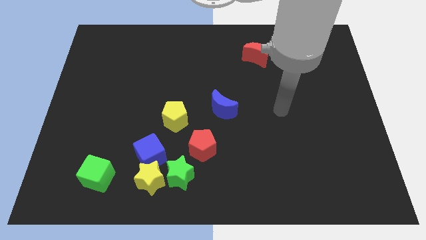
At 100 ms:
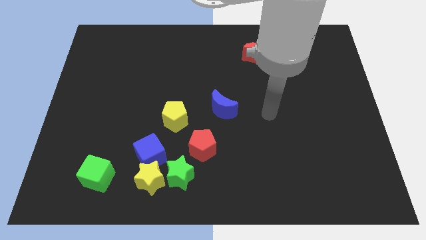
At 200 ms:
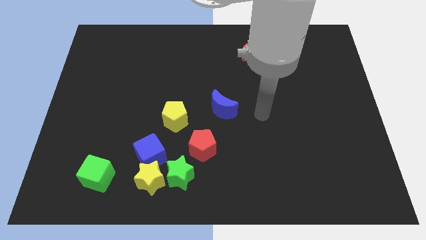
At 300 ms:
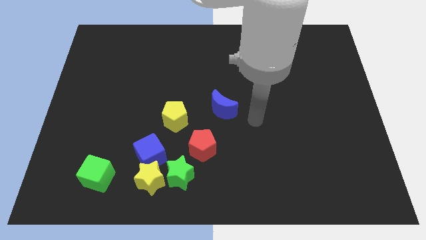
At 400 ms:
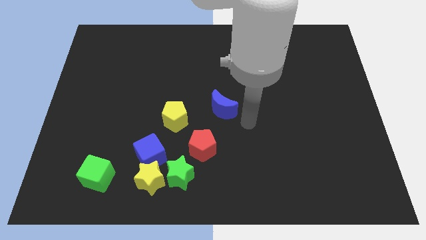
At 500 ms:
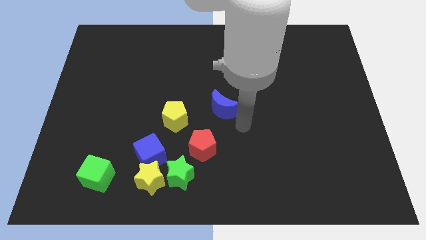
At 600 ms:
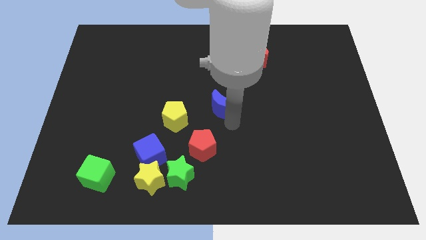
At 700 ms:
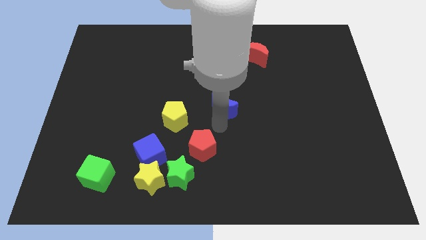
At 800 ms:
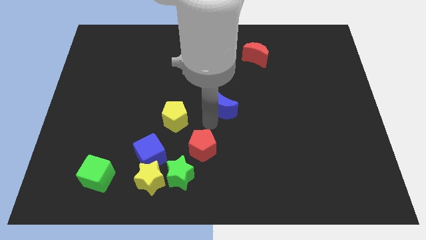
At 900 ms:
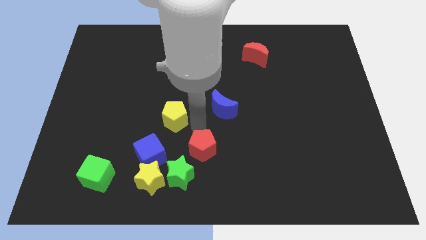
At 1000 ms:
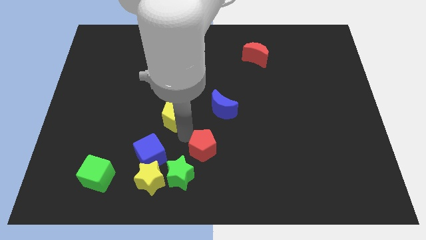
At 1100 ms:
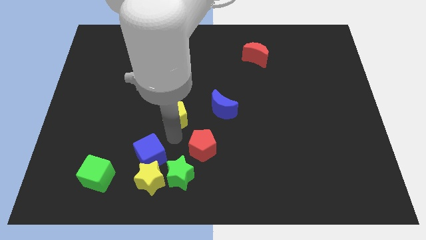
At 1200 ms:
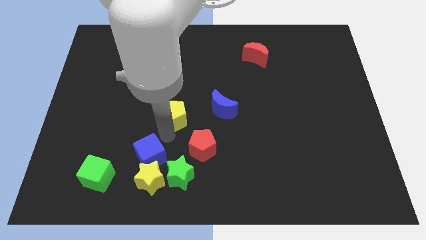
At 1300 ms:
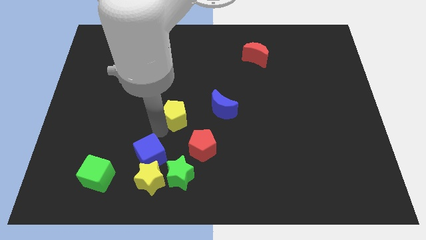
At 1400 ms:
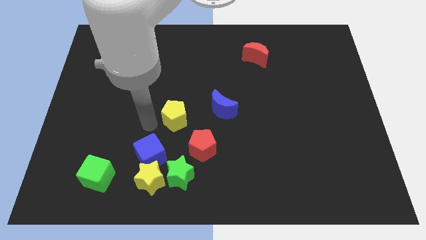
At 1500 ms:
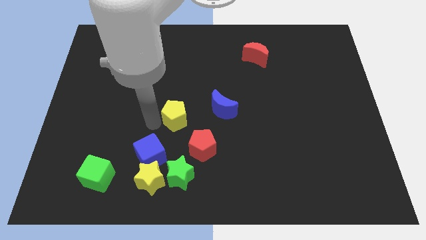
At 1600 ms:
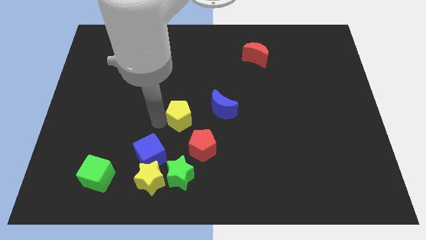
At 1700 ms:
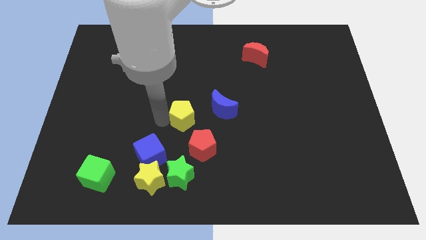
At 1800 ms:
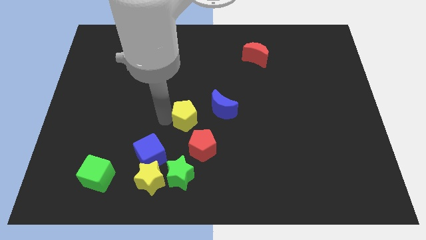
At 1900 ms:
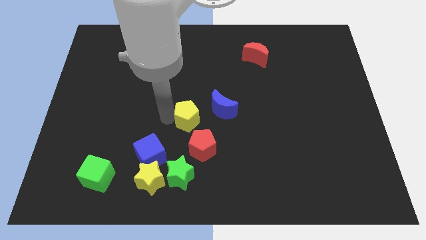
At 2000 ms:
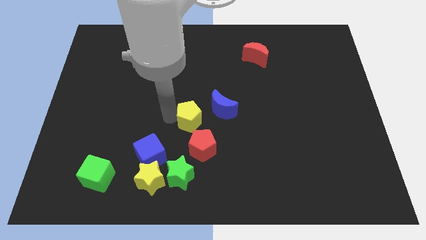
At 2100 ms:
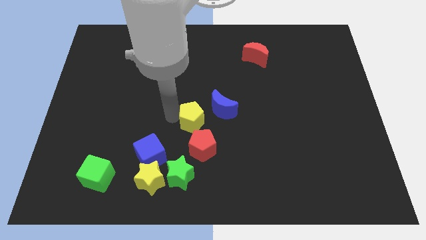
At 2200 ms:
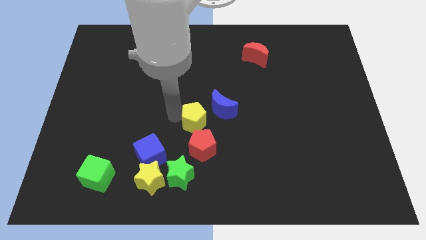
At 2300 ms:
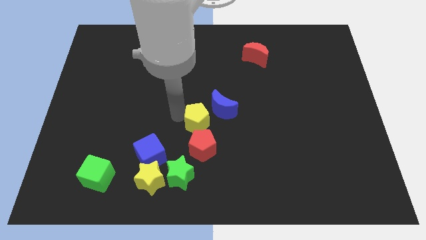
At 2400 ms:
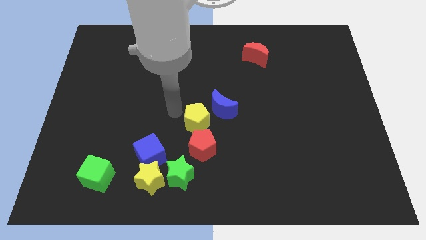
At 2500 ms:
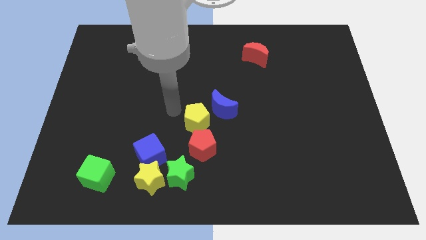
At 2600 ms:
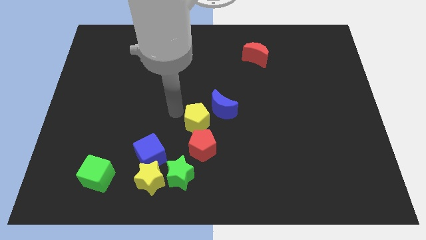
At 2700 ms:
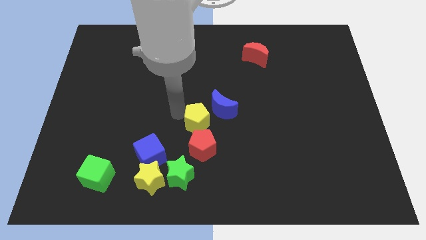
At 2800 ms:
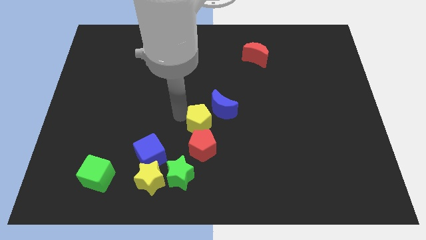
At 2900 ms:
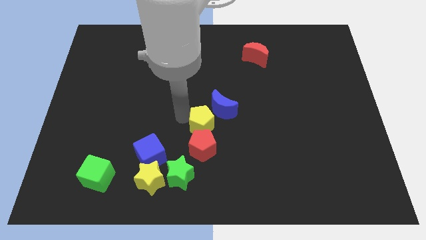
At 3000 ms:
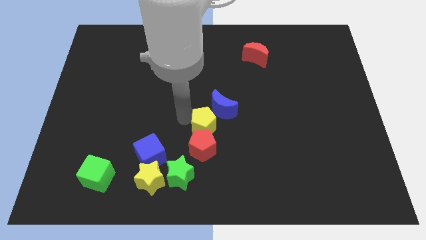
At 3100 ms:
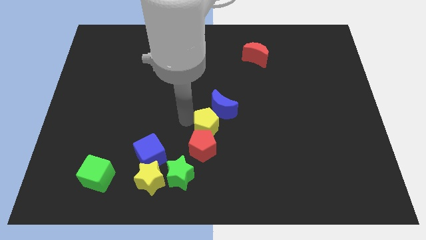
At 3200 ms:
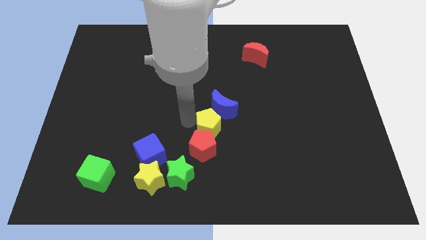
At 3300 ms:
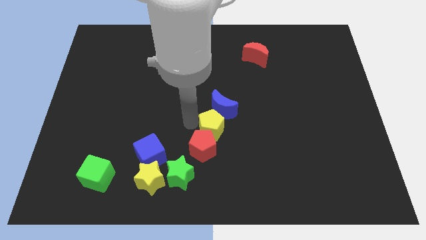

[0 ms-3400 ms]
slightly slide the yellow pentagon down and right diagonally

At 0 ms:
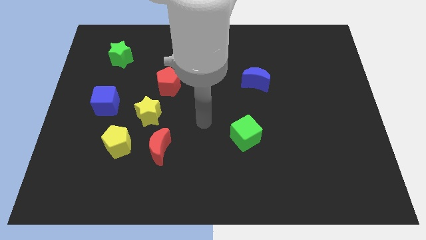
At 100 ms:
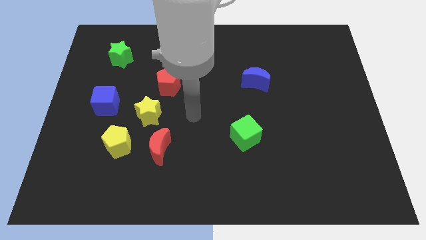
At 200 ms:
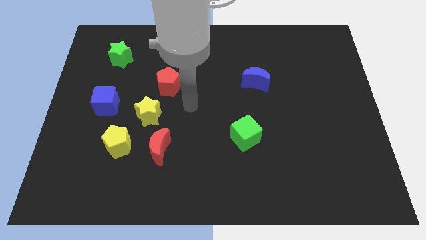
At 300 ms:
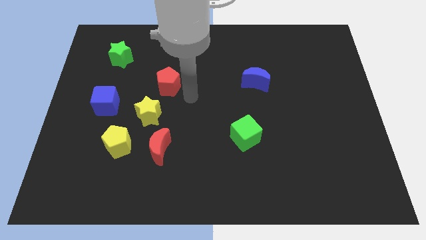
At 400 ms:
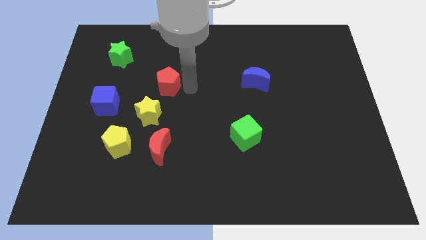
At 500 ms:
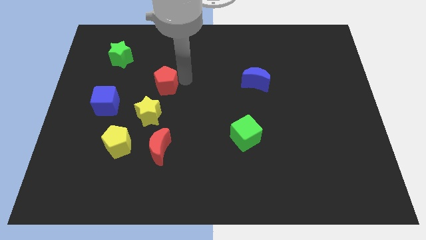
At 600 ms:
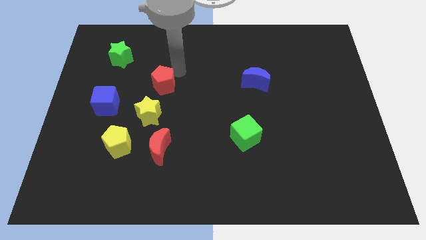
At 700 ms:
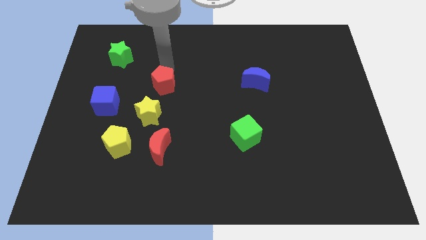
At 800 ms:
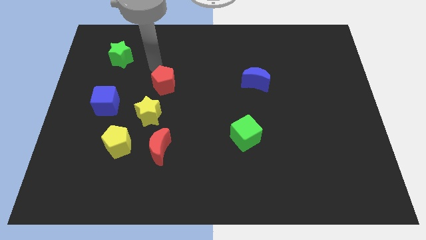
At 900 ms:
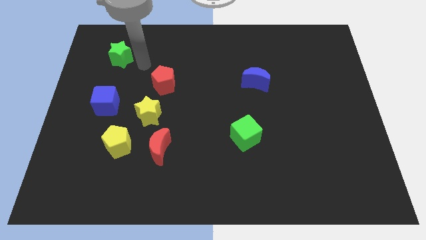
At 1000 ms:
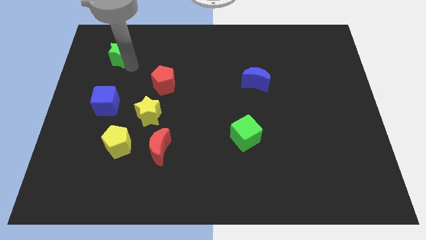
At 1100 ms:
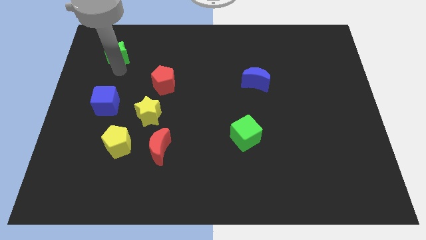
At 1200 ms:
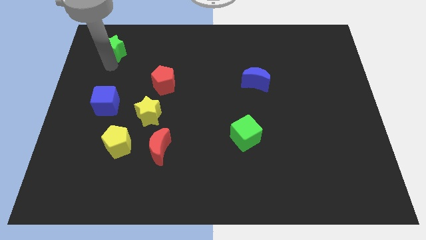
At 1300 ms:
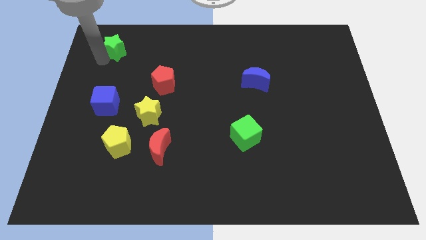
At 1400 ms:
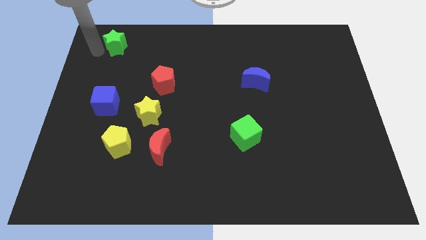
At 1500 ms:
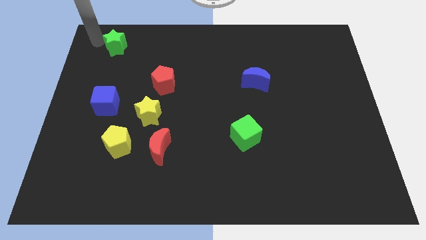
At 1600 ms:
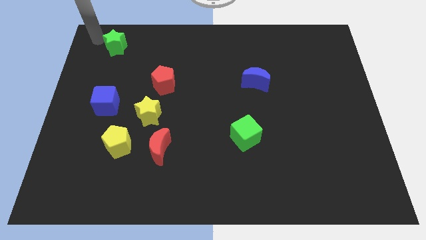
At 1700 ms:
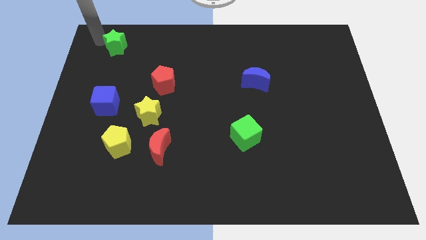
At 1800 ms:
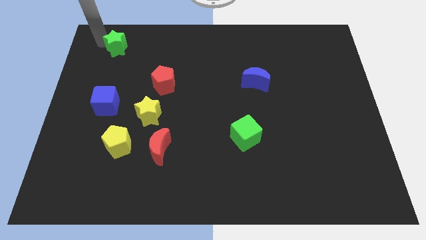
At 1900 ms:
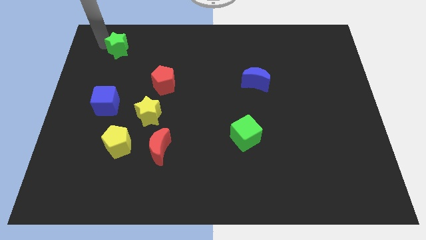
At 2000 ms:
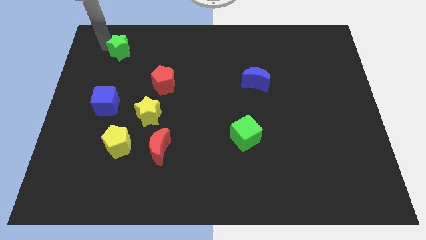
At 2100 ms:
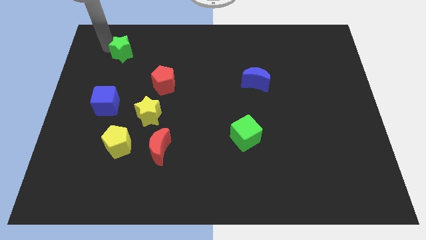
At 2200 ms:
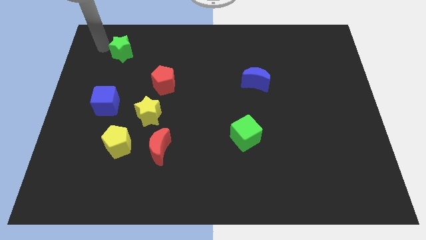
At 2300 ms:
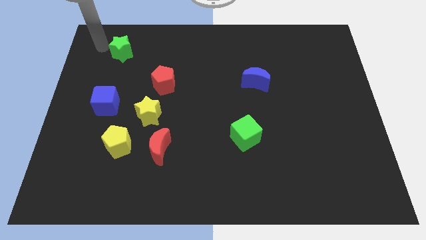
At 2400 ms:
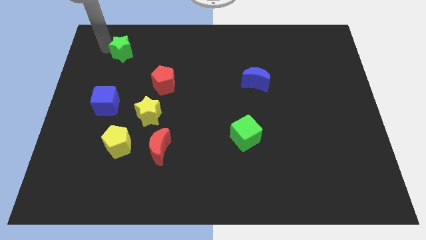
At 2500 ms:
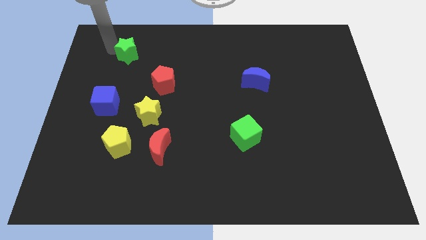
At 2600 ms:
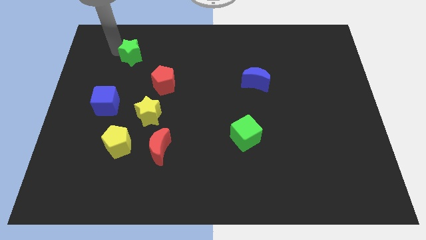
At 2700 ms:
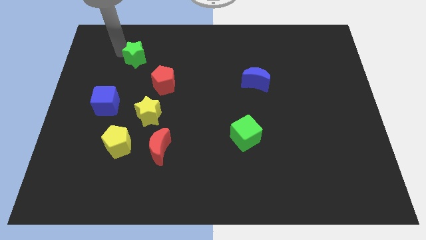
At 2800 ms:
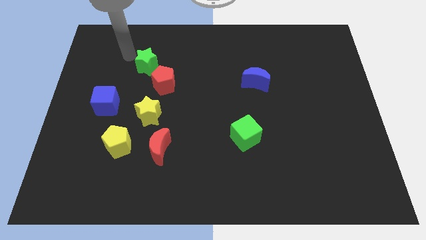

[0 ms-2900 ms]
slightly move the green star right

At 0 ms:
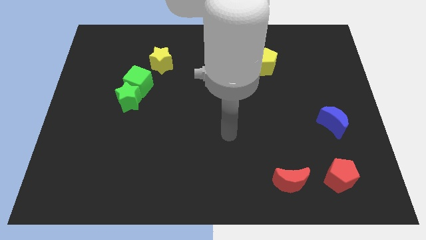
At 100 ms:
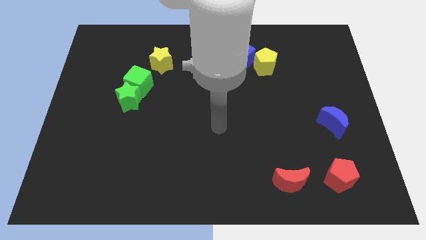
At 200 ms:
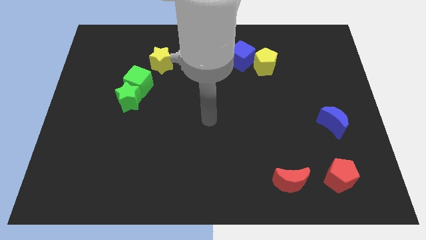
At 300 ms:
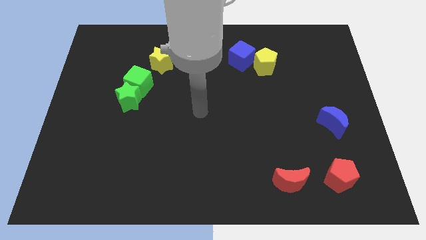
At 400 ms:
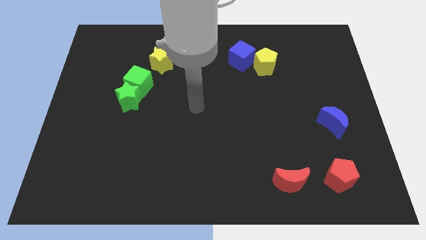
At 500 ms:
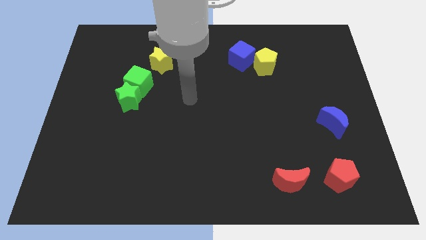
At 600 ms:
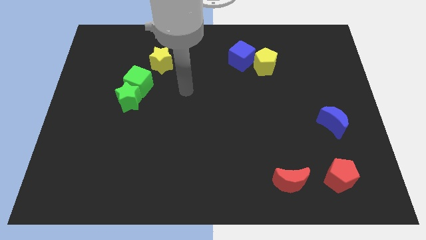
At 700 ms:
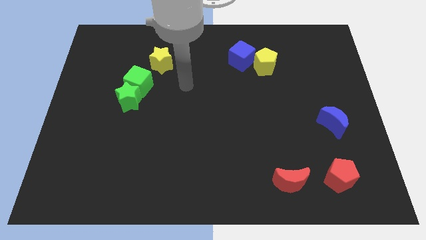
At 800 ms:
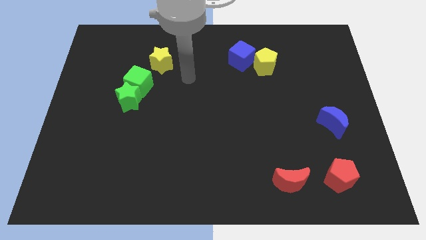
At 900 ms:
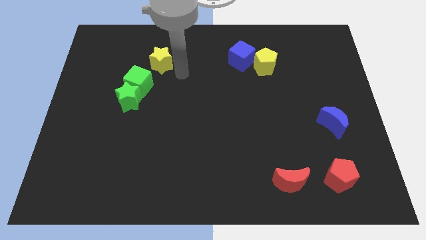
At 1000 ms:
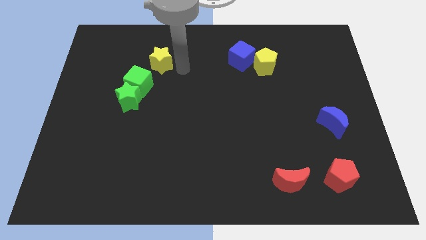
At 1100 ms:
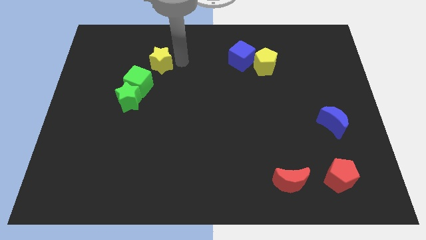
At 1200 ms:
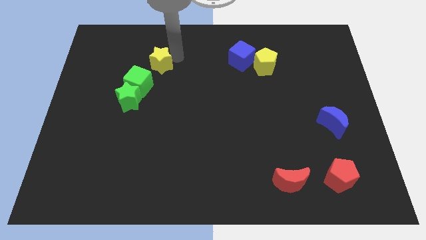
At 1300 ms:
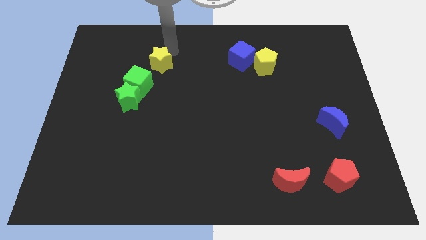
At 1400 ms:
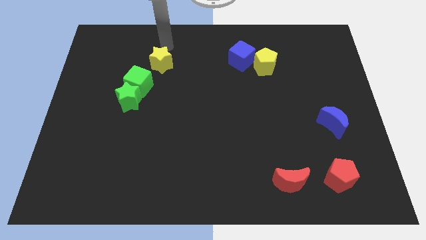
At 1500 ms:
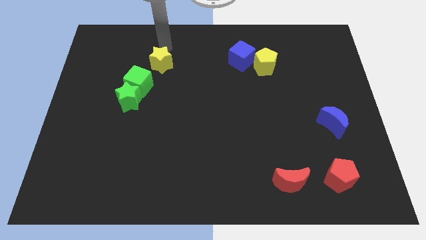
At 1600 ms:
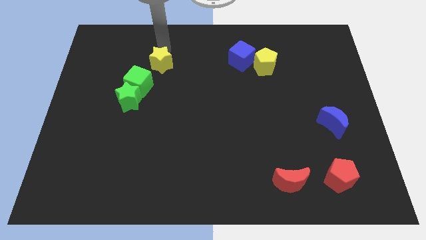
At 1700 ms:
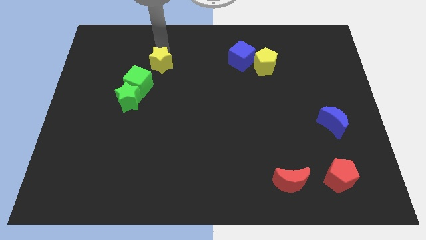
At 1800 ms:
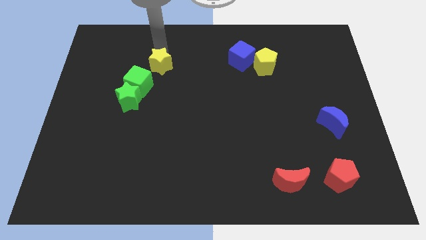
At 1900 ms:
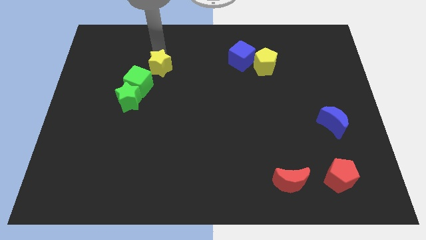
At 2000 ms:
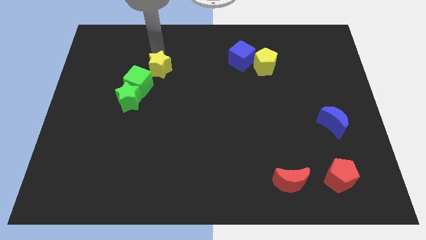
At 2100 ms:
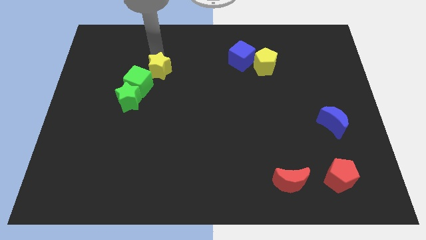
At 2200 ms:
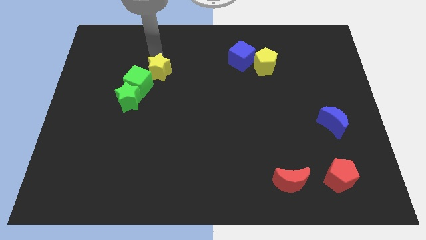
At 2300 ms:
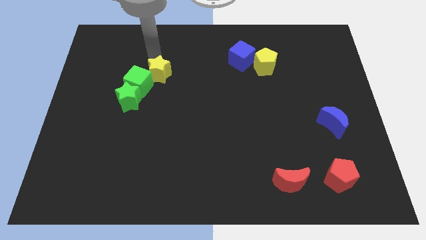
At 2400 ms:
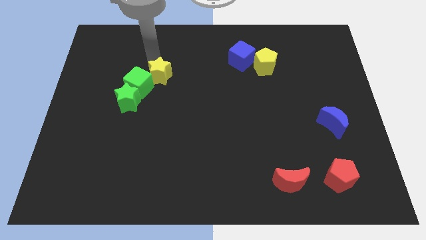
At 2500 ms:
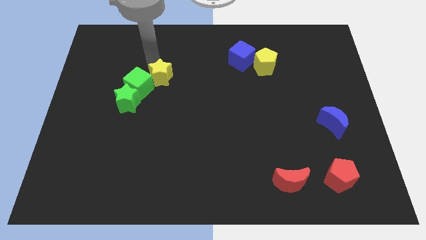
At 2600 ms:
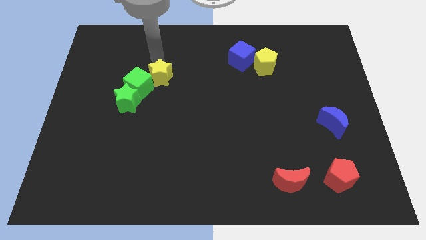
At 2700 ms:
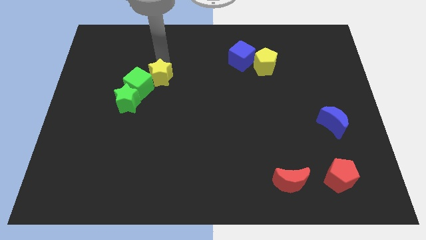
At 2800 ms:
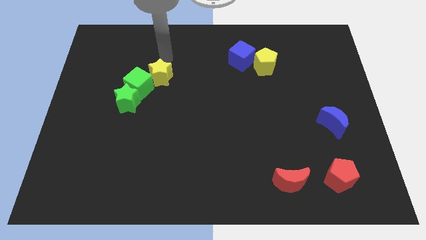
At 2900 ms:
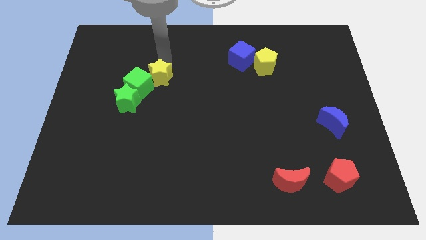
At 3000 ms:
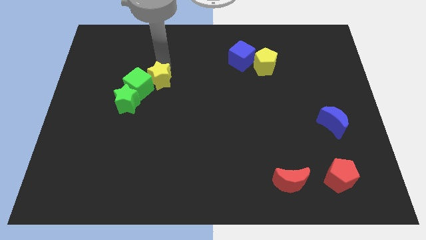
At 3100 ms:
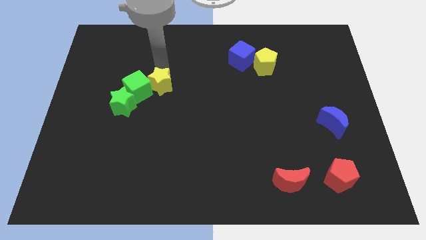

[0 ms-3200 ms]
slightly move the yellow star downwards
